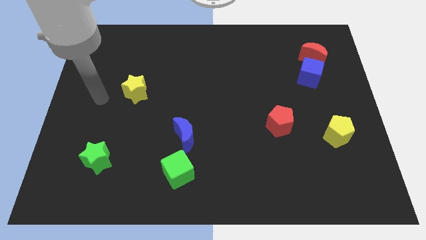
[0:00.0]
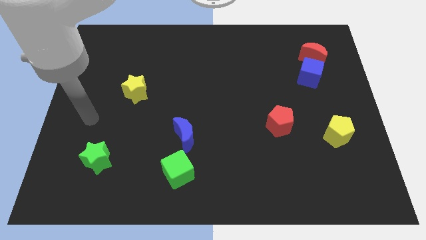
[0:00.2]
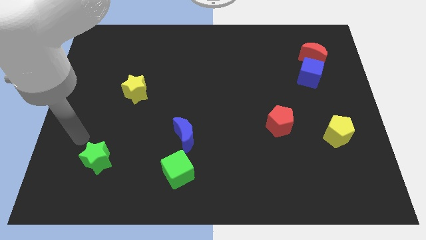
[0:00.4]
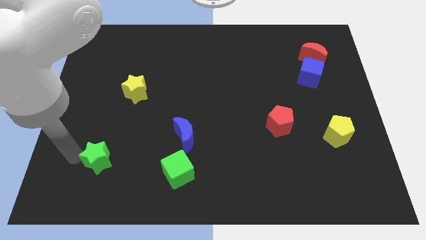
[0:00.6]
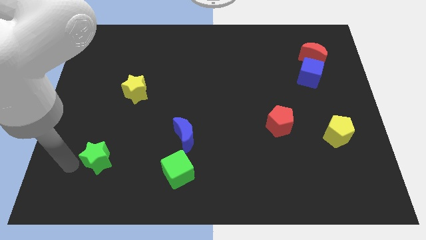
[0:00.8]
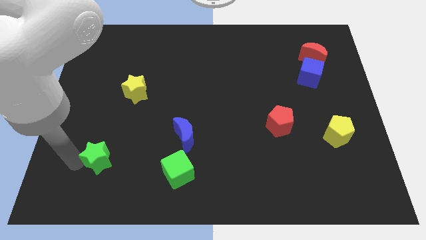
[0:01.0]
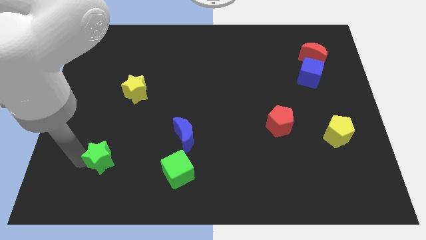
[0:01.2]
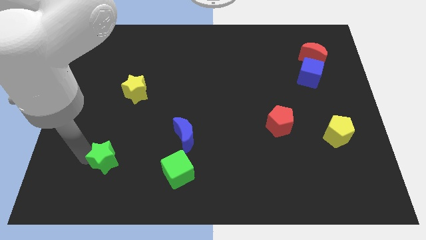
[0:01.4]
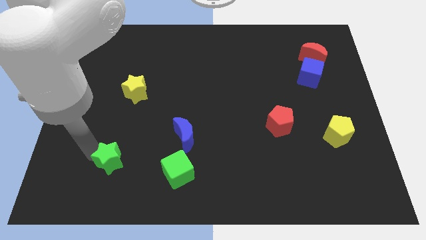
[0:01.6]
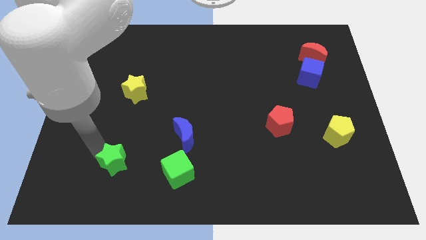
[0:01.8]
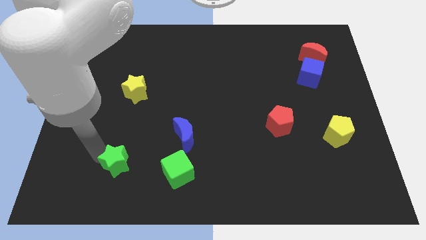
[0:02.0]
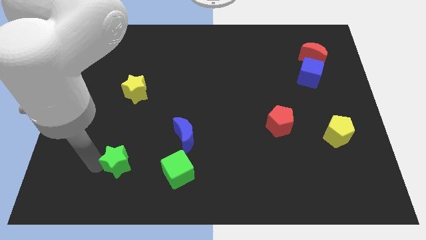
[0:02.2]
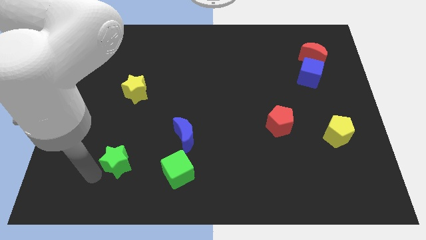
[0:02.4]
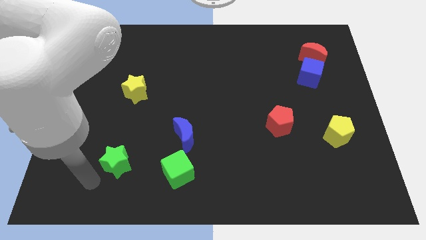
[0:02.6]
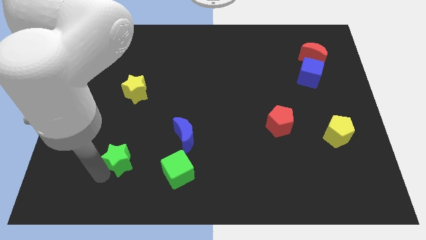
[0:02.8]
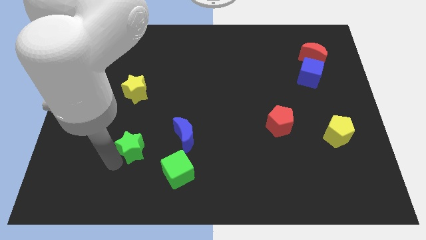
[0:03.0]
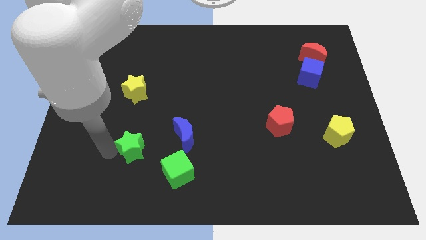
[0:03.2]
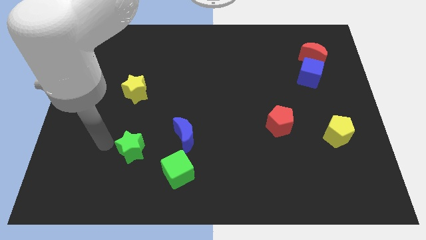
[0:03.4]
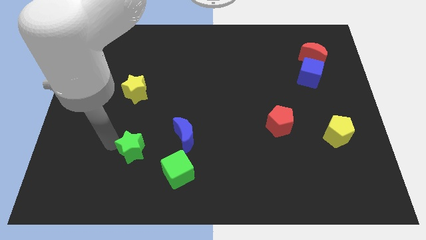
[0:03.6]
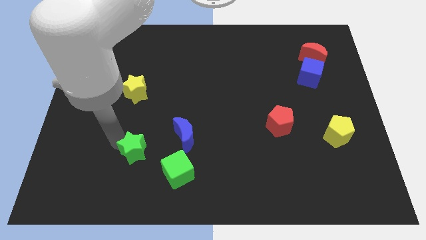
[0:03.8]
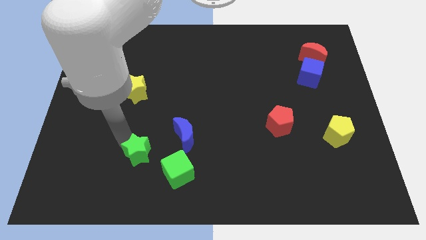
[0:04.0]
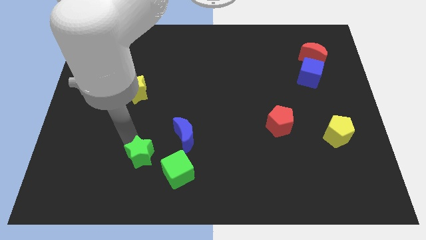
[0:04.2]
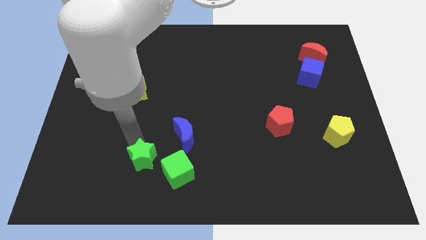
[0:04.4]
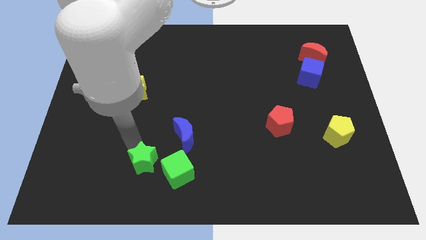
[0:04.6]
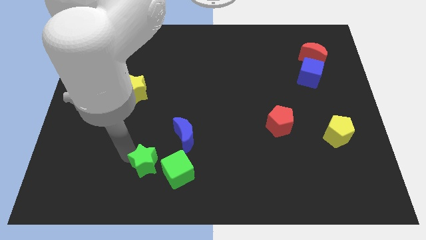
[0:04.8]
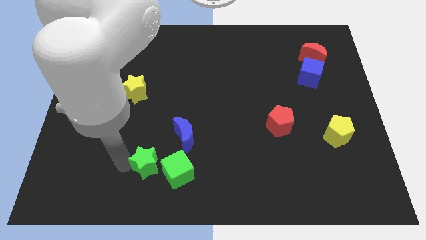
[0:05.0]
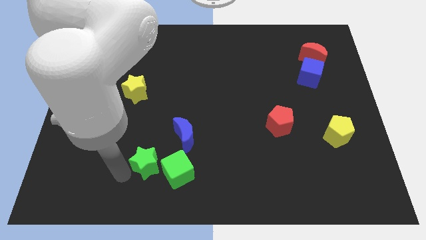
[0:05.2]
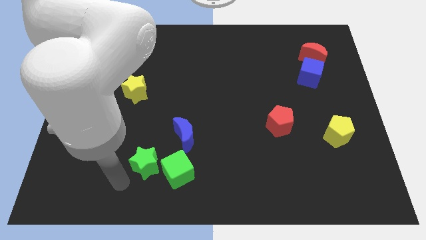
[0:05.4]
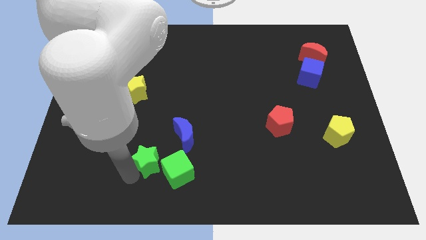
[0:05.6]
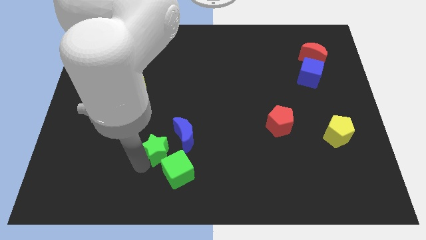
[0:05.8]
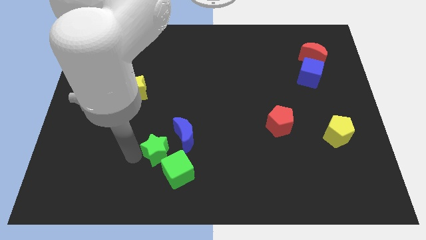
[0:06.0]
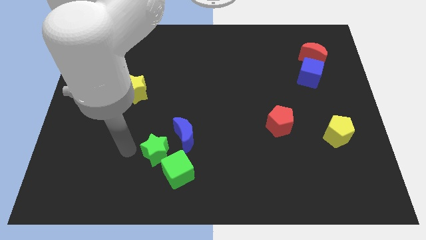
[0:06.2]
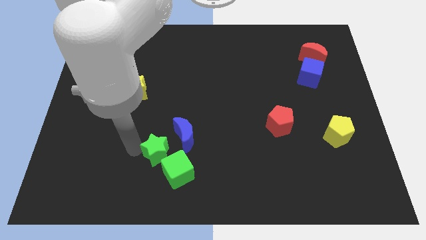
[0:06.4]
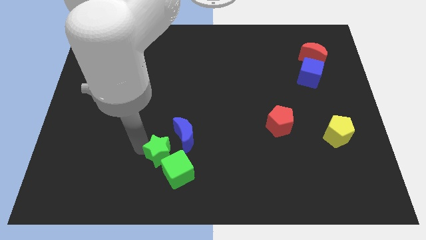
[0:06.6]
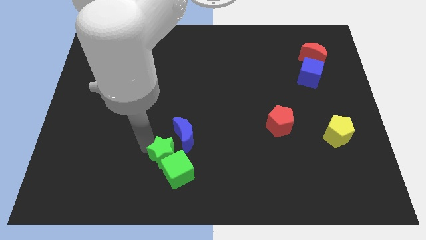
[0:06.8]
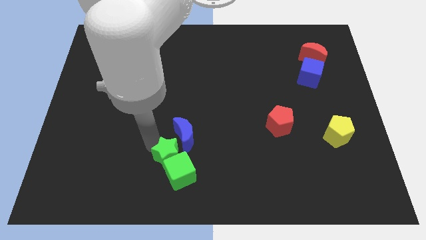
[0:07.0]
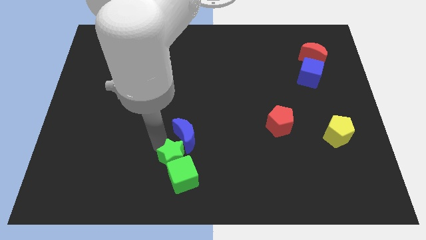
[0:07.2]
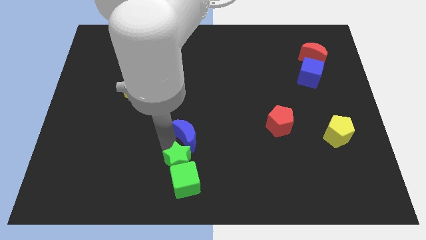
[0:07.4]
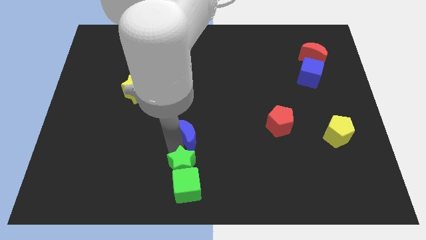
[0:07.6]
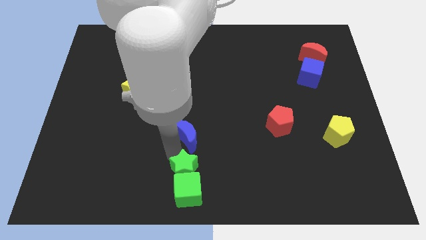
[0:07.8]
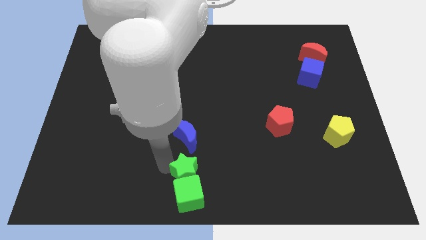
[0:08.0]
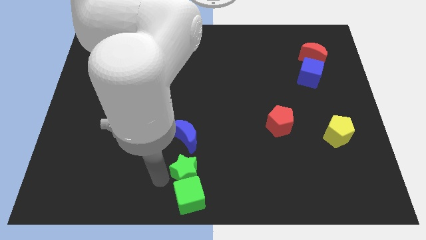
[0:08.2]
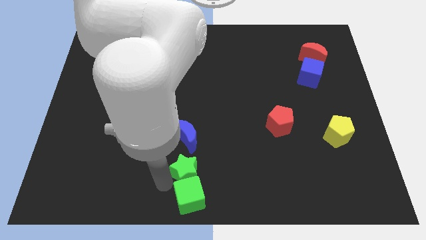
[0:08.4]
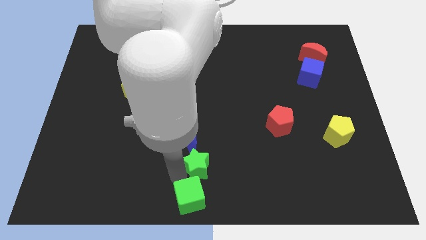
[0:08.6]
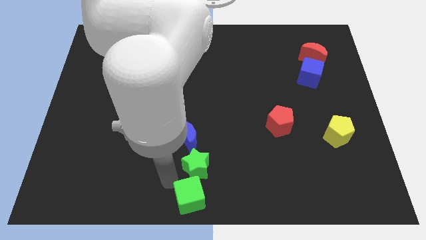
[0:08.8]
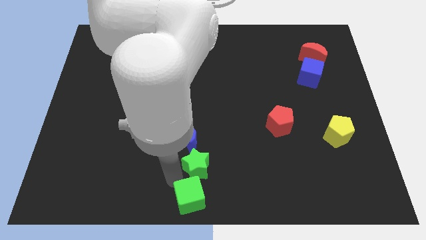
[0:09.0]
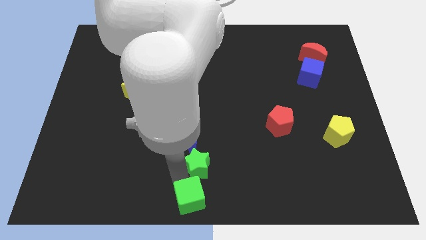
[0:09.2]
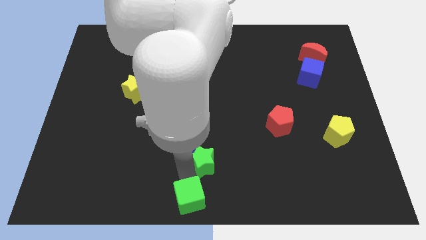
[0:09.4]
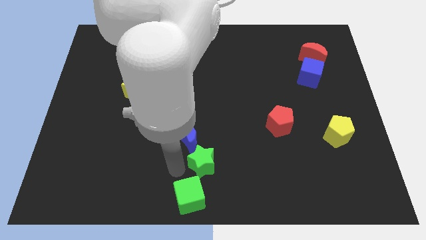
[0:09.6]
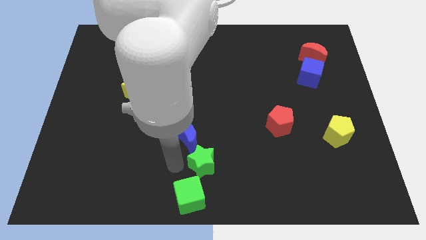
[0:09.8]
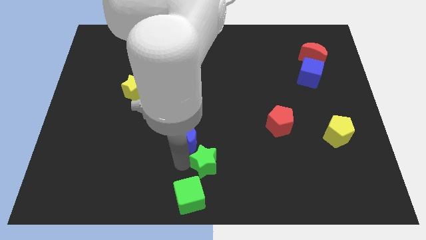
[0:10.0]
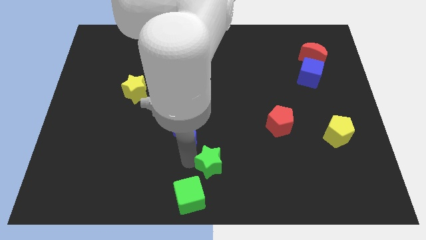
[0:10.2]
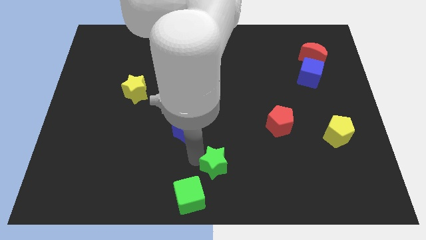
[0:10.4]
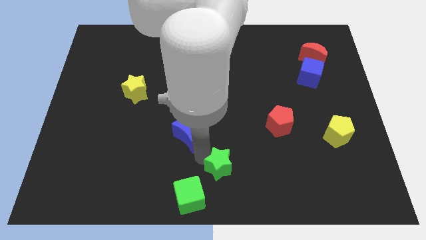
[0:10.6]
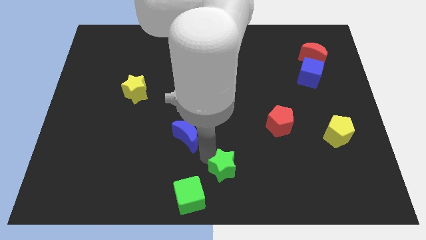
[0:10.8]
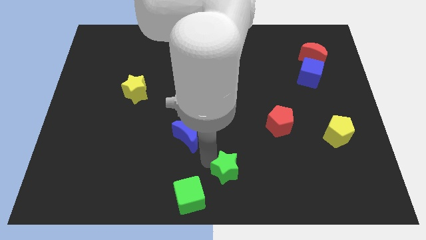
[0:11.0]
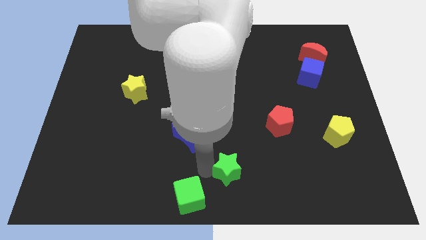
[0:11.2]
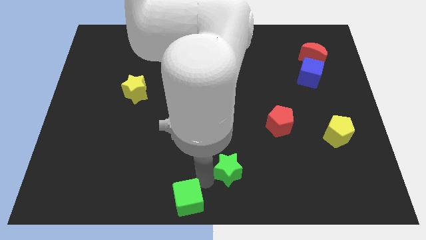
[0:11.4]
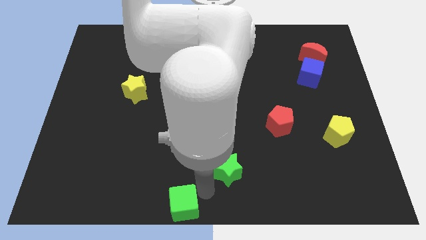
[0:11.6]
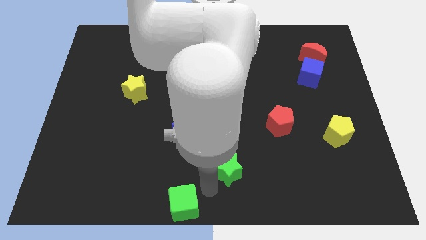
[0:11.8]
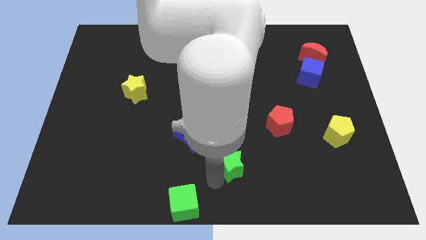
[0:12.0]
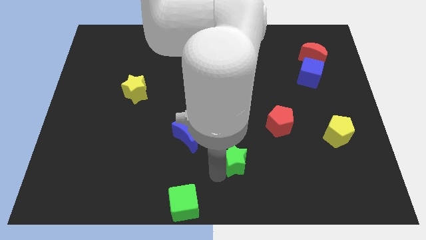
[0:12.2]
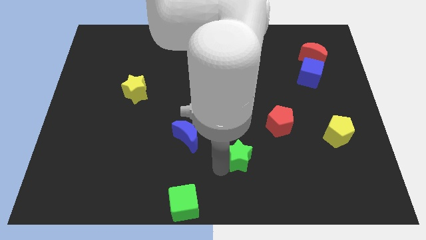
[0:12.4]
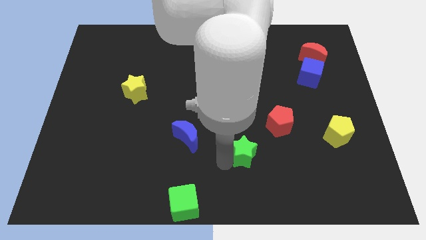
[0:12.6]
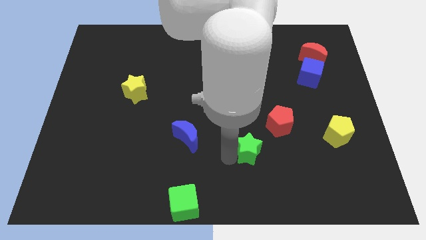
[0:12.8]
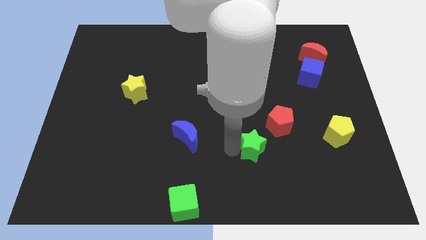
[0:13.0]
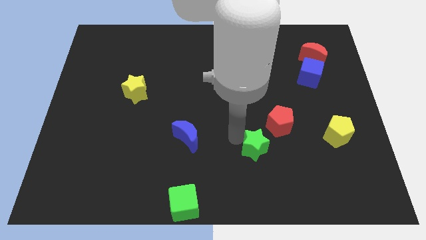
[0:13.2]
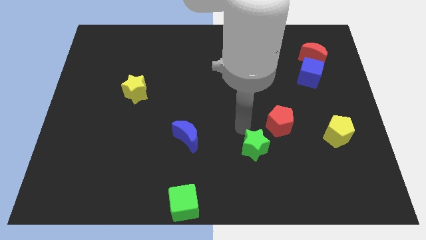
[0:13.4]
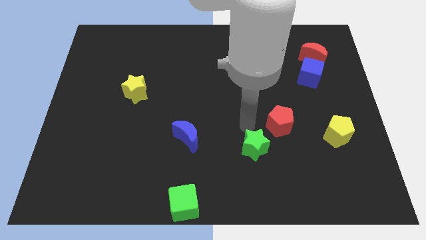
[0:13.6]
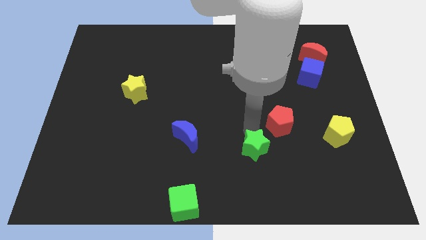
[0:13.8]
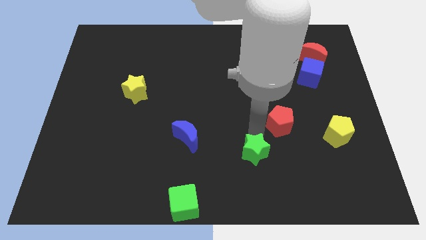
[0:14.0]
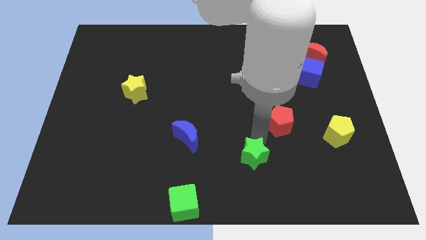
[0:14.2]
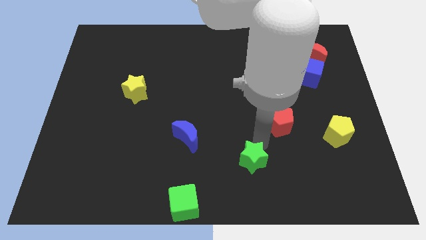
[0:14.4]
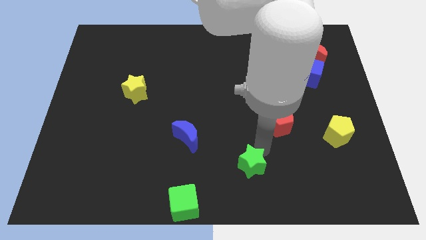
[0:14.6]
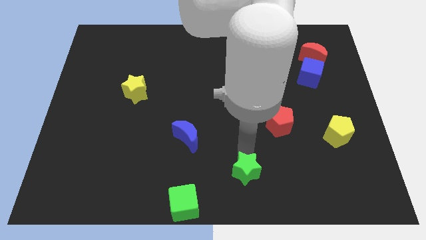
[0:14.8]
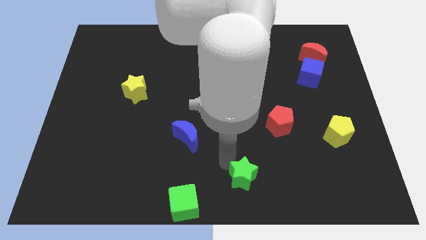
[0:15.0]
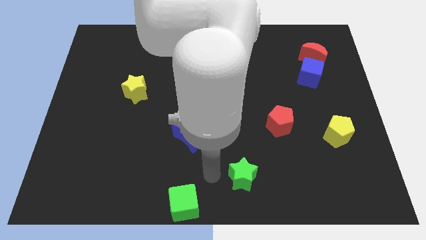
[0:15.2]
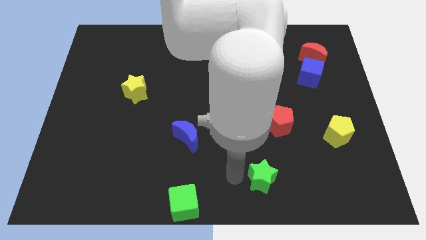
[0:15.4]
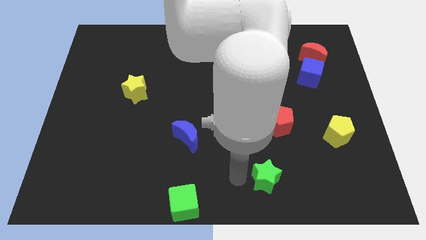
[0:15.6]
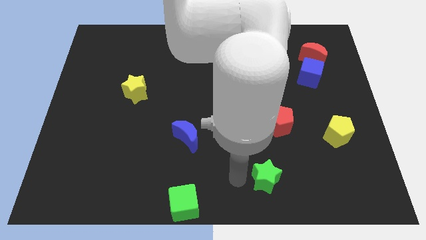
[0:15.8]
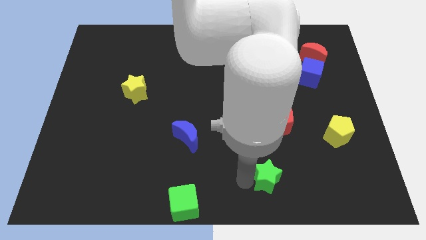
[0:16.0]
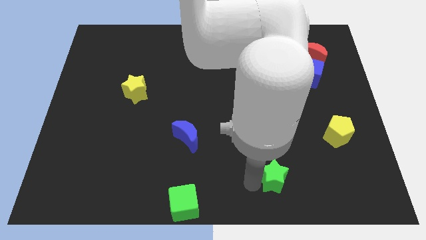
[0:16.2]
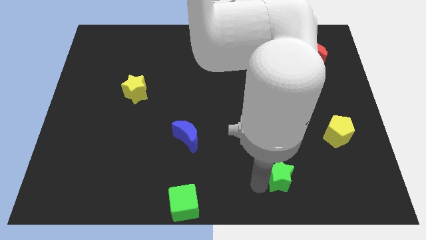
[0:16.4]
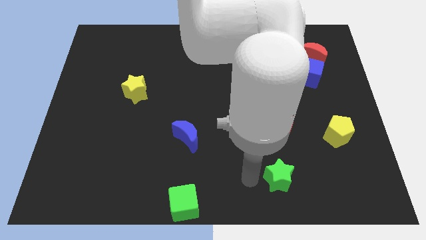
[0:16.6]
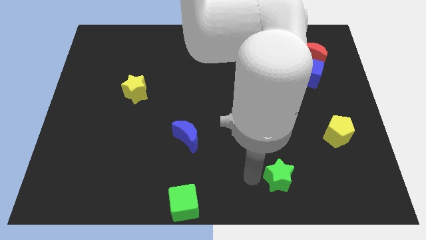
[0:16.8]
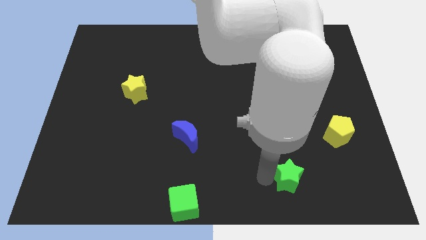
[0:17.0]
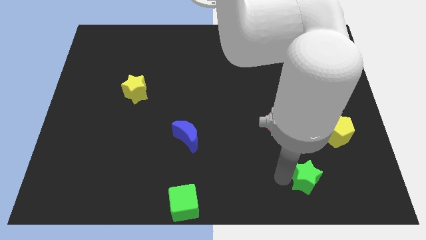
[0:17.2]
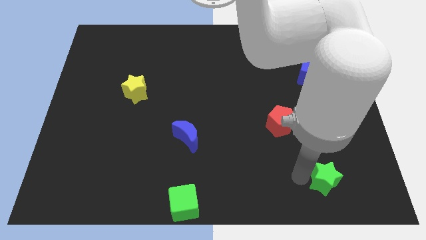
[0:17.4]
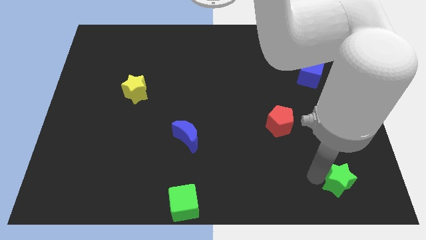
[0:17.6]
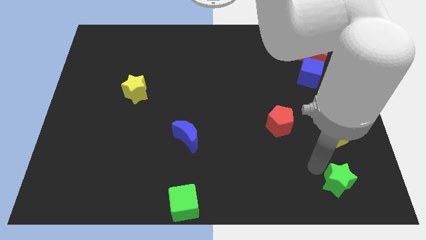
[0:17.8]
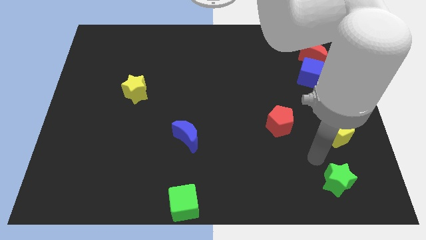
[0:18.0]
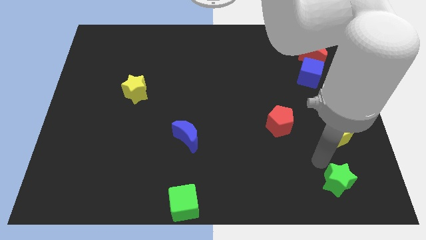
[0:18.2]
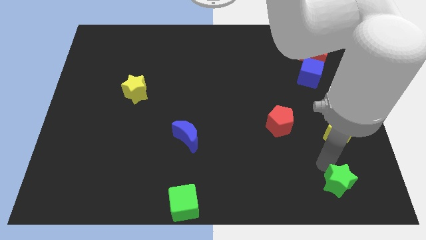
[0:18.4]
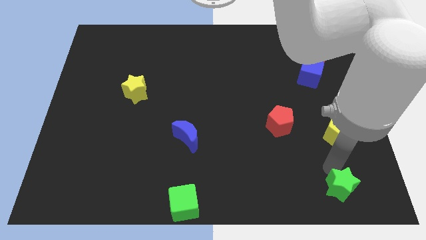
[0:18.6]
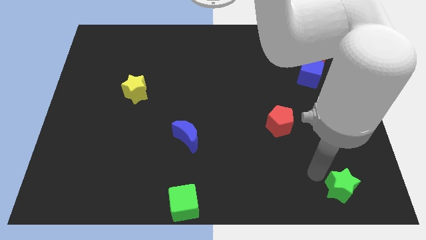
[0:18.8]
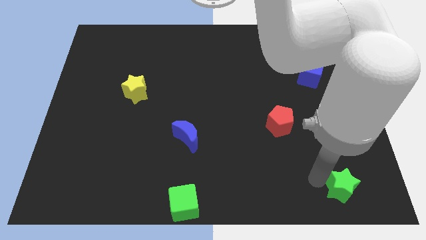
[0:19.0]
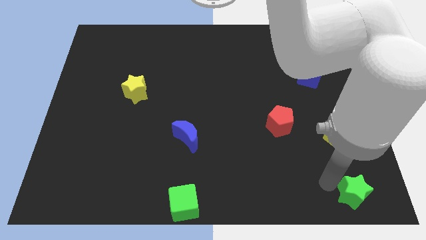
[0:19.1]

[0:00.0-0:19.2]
move the green star to the bottom right of the board
